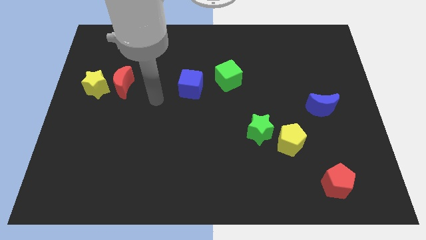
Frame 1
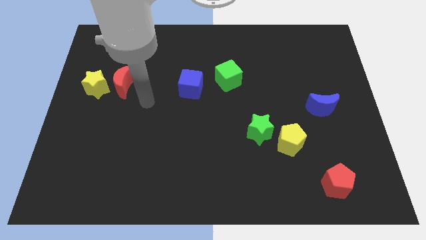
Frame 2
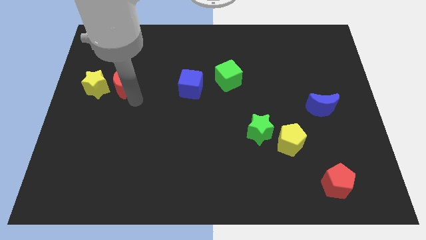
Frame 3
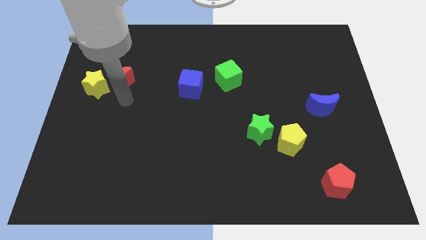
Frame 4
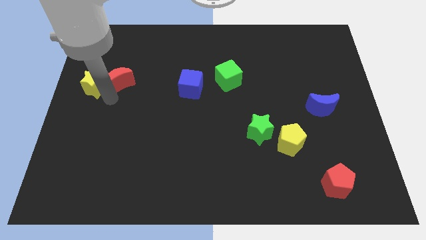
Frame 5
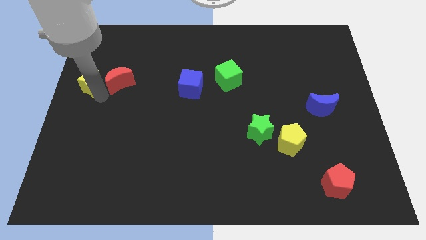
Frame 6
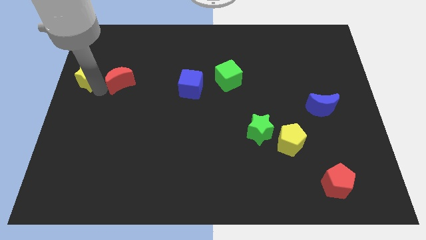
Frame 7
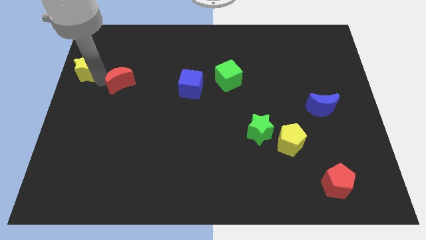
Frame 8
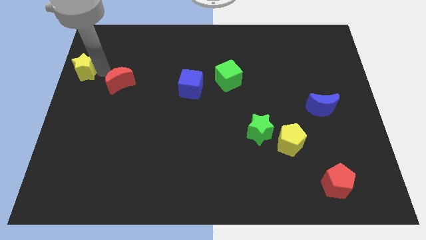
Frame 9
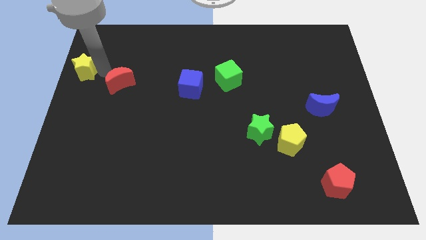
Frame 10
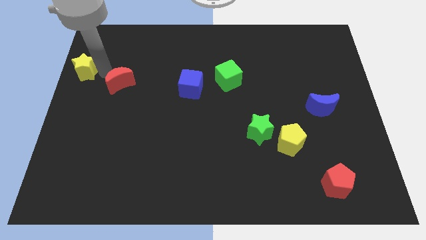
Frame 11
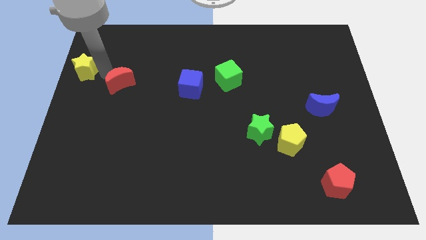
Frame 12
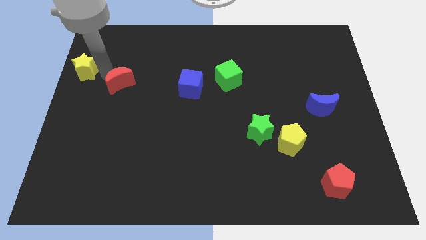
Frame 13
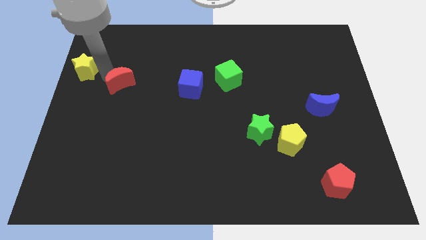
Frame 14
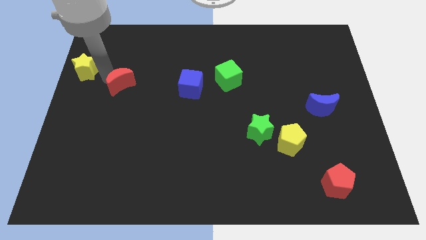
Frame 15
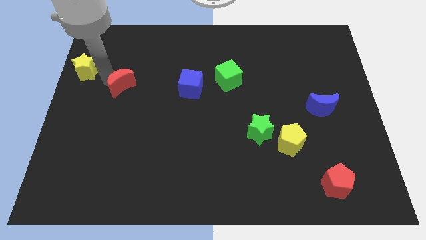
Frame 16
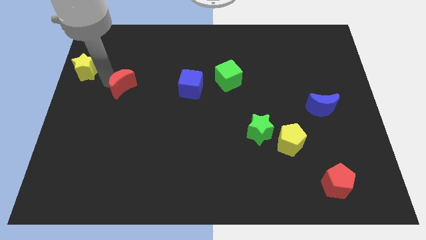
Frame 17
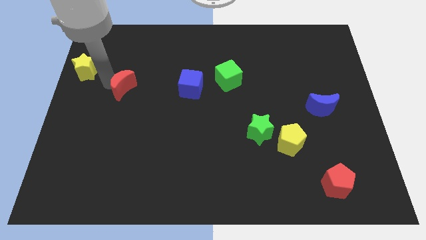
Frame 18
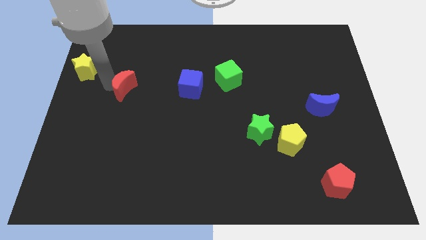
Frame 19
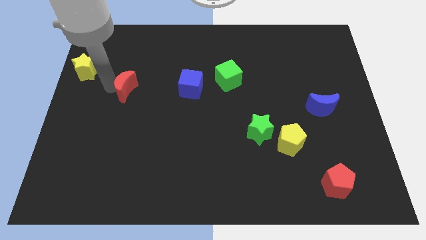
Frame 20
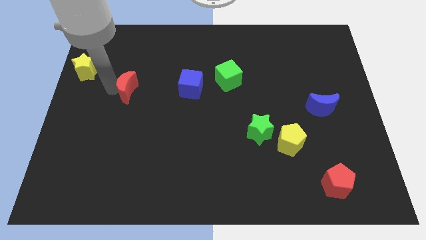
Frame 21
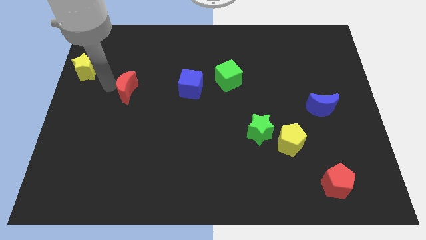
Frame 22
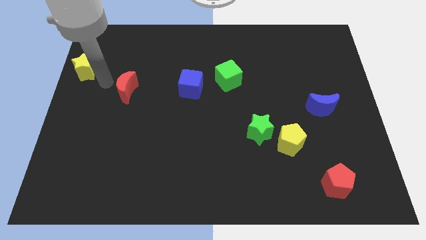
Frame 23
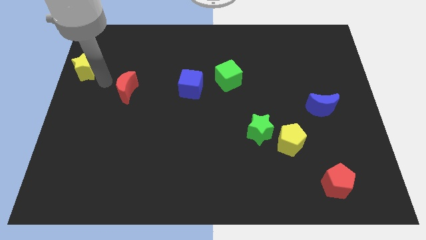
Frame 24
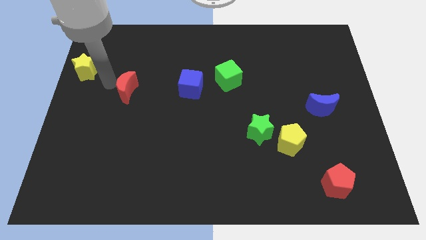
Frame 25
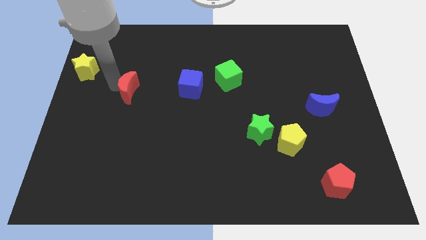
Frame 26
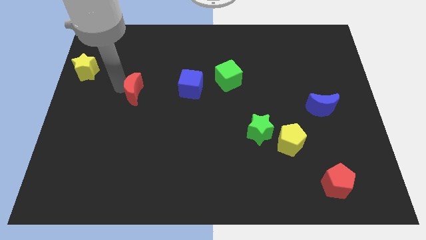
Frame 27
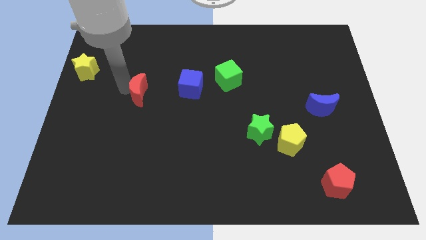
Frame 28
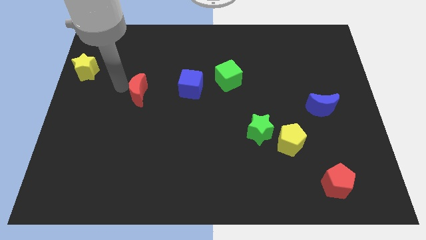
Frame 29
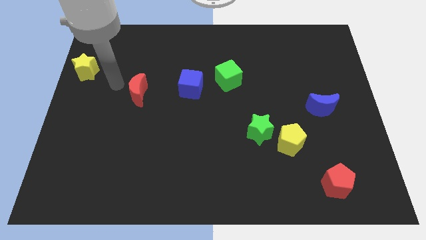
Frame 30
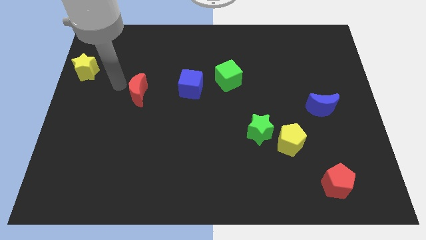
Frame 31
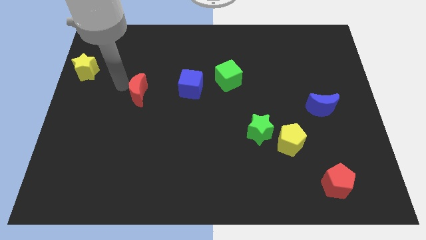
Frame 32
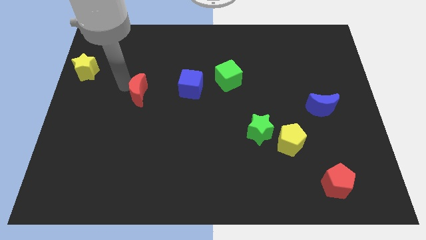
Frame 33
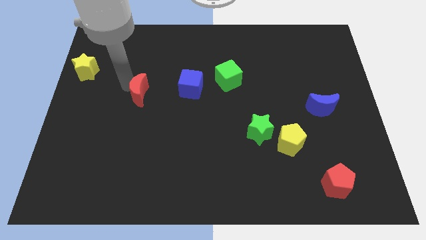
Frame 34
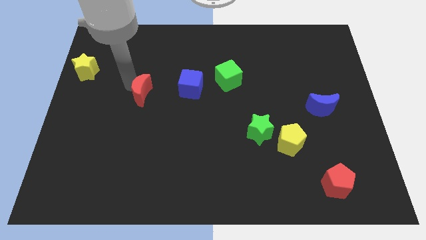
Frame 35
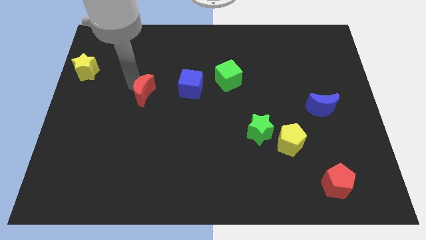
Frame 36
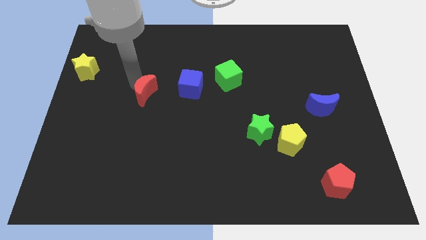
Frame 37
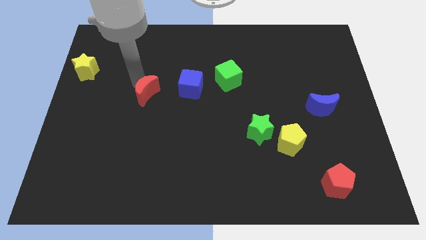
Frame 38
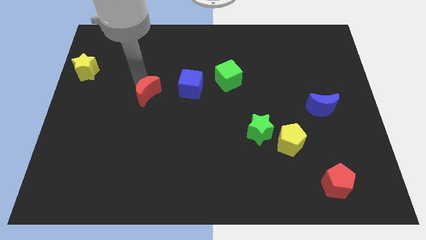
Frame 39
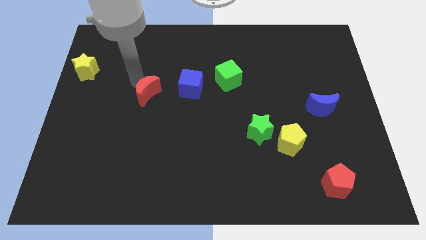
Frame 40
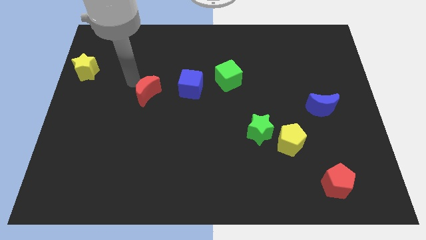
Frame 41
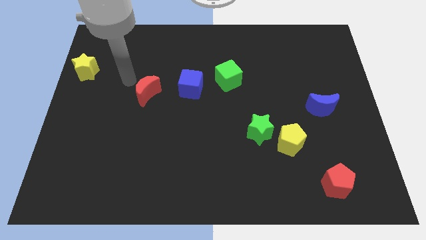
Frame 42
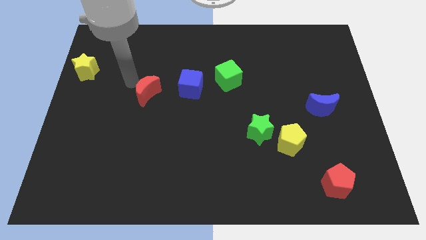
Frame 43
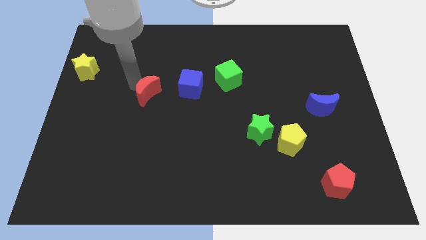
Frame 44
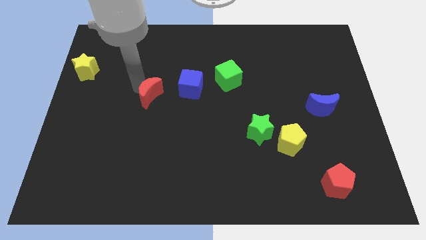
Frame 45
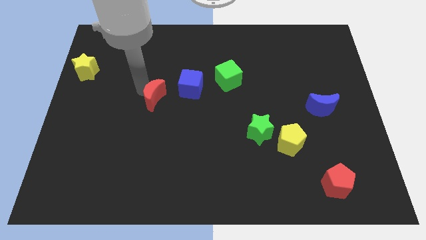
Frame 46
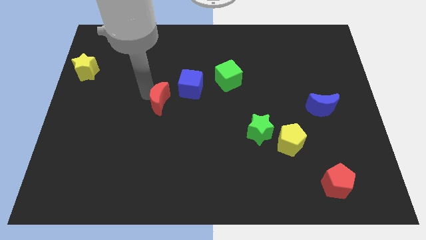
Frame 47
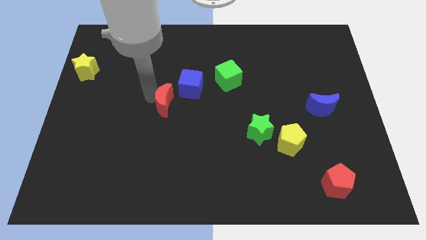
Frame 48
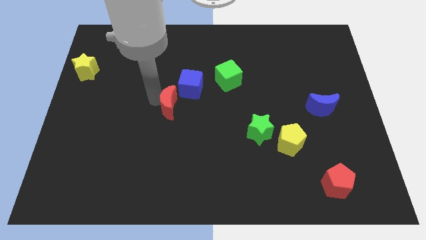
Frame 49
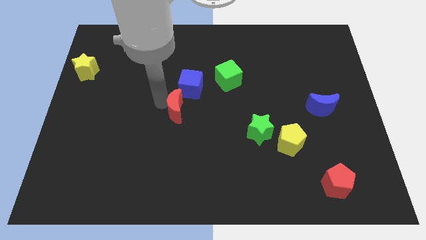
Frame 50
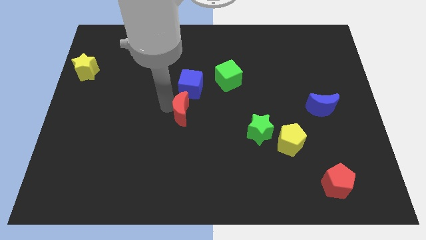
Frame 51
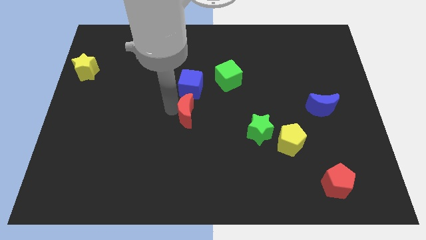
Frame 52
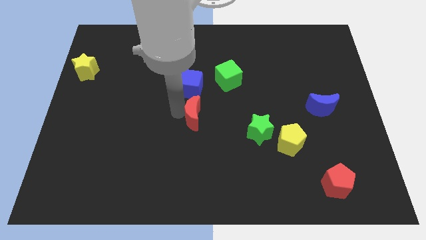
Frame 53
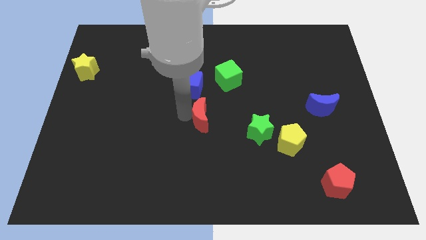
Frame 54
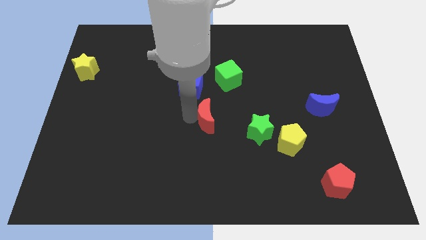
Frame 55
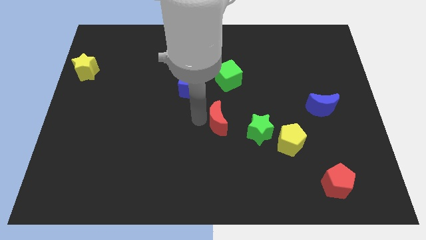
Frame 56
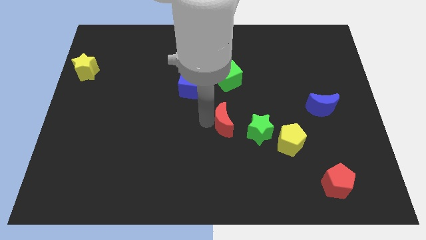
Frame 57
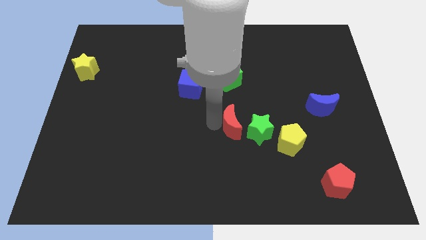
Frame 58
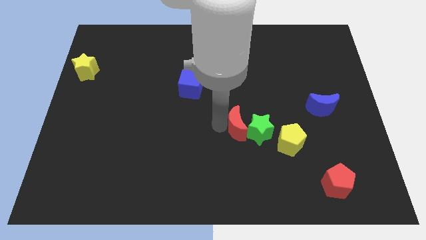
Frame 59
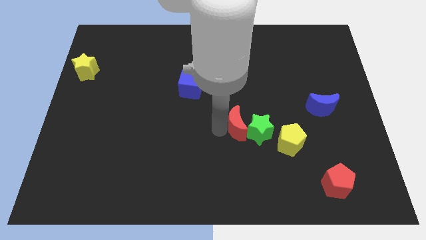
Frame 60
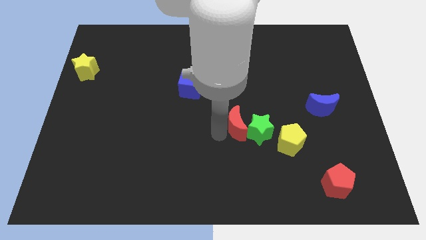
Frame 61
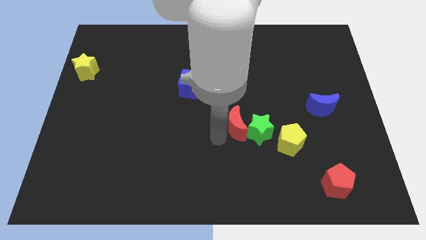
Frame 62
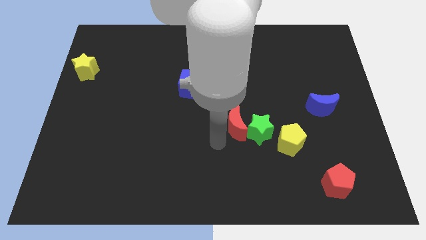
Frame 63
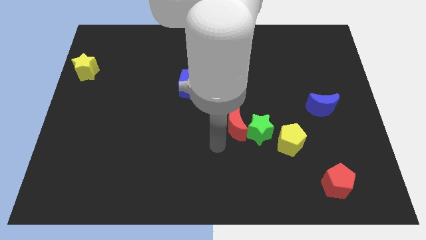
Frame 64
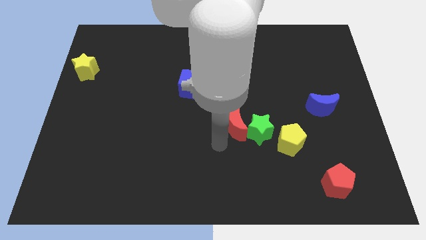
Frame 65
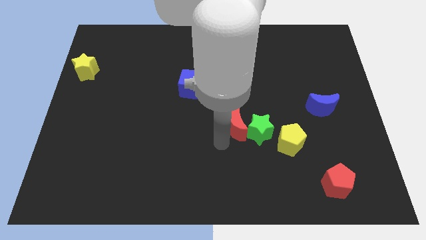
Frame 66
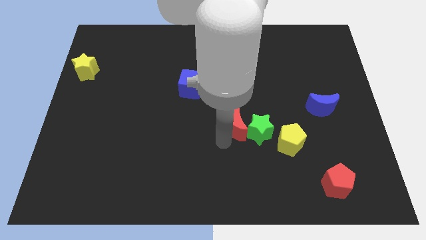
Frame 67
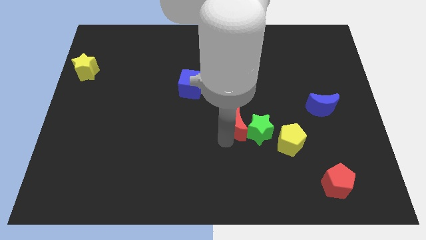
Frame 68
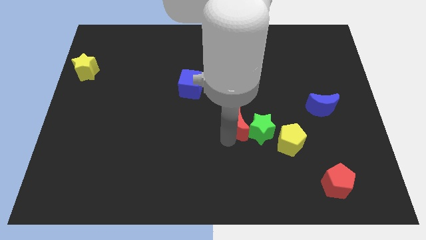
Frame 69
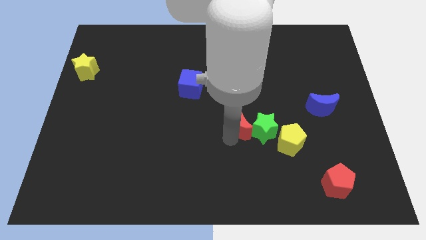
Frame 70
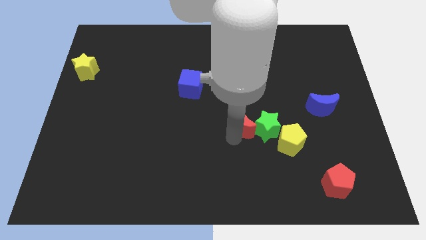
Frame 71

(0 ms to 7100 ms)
put the red moon diagonally up and to the left of the yellow pentagon
